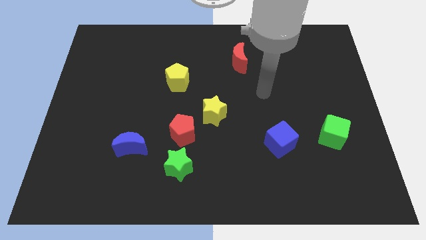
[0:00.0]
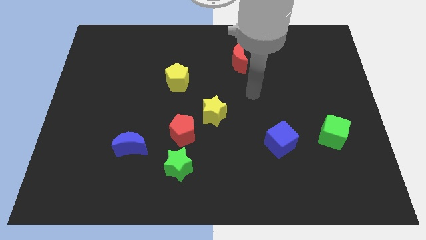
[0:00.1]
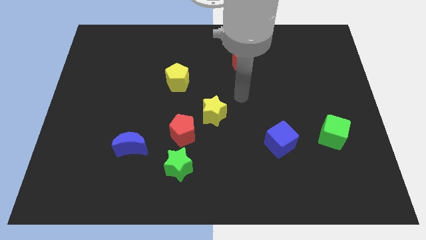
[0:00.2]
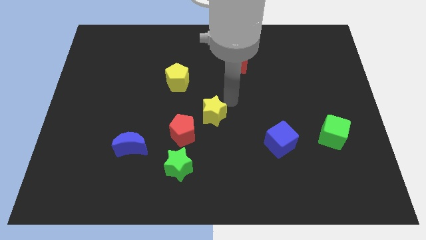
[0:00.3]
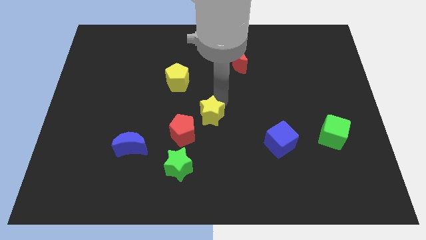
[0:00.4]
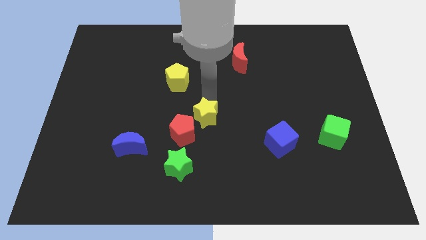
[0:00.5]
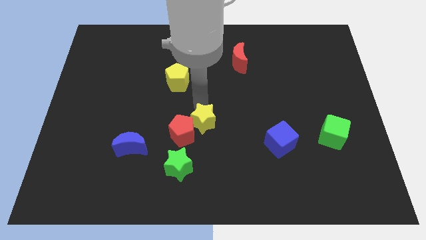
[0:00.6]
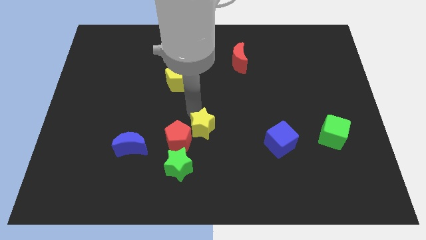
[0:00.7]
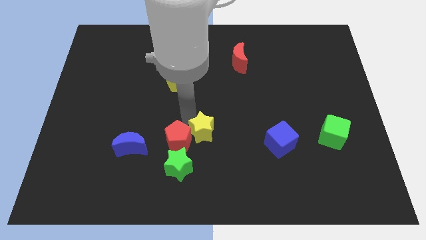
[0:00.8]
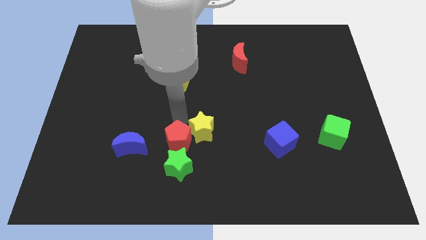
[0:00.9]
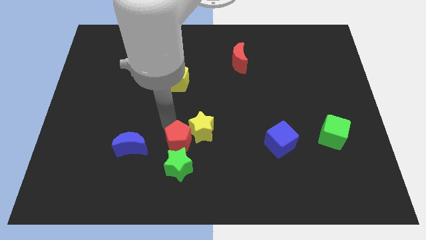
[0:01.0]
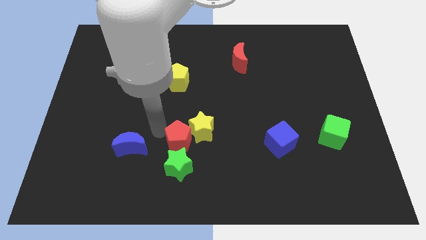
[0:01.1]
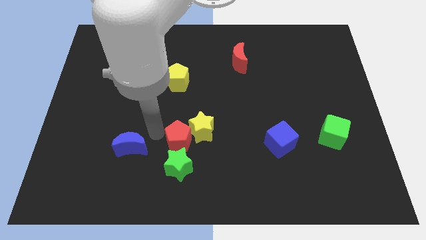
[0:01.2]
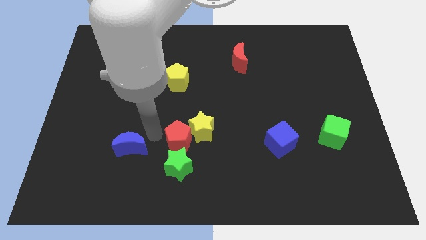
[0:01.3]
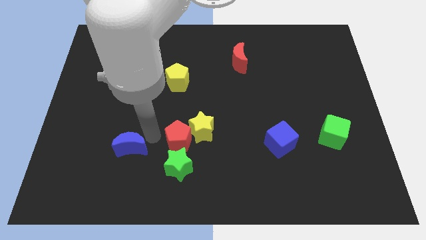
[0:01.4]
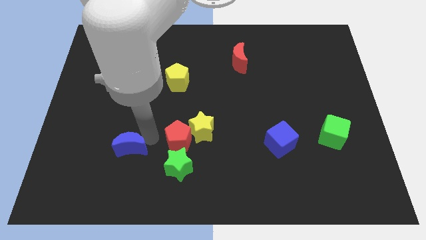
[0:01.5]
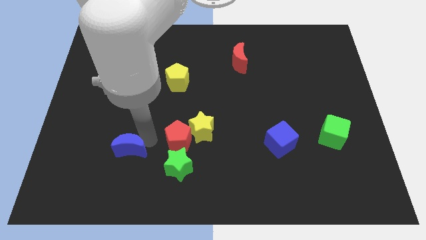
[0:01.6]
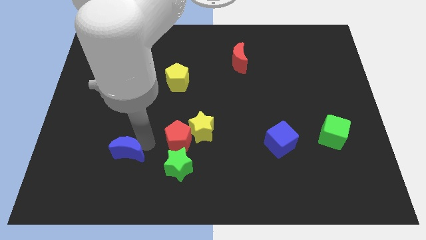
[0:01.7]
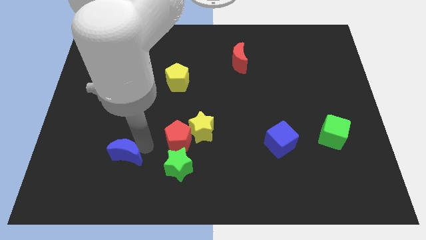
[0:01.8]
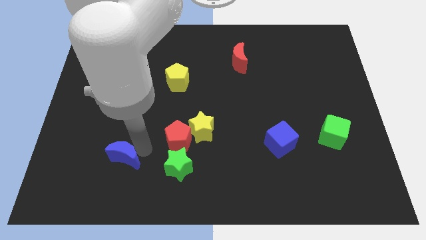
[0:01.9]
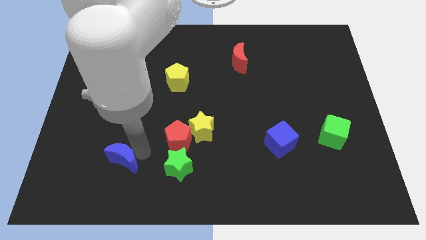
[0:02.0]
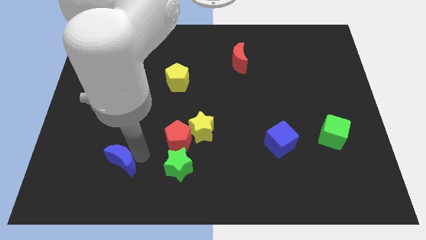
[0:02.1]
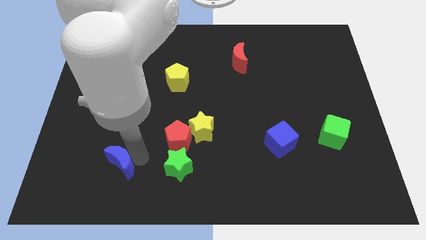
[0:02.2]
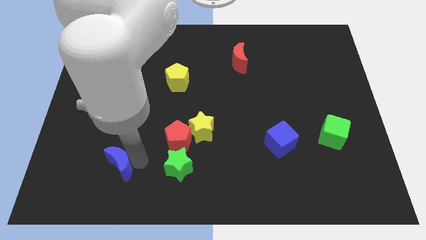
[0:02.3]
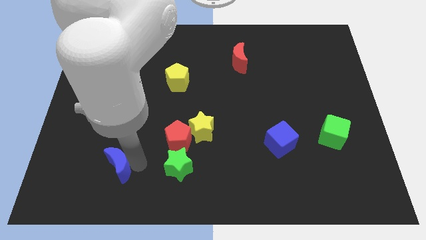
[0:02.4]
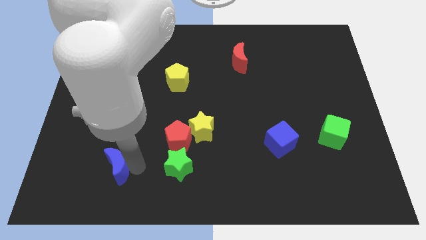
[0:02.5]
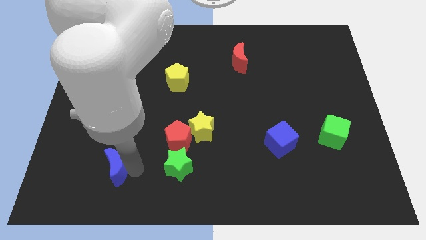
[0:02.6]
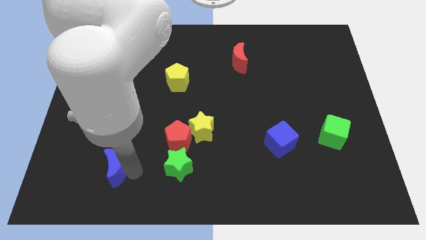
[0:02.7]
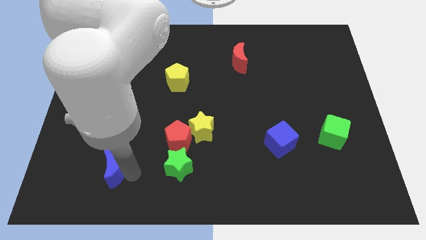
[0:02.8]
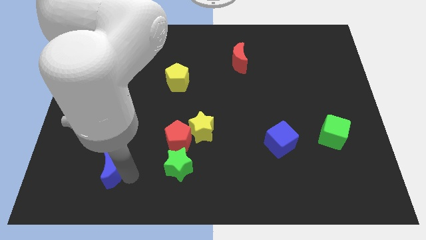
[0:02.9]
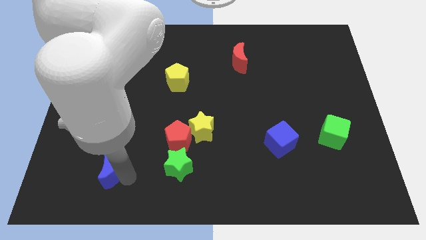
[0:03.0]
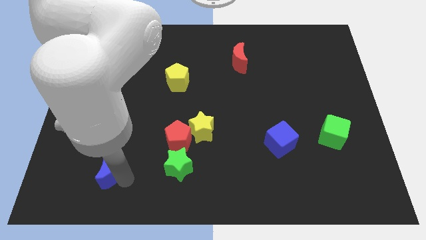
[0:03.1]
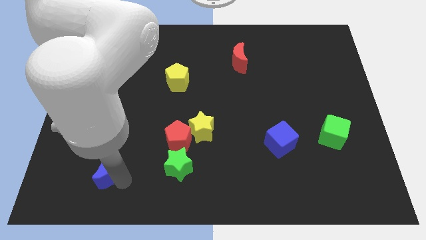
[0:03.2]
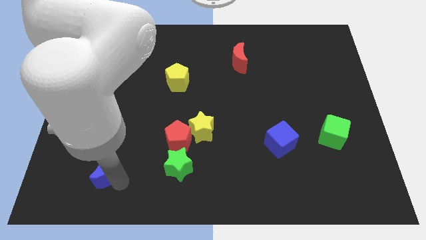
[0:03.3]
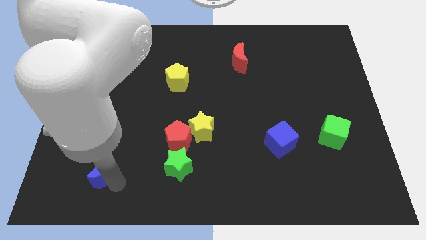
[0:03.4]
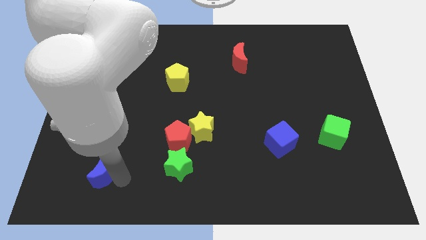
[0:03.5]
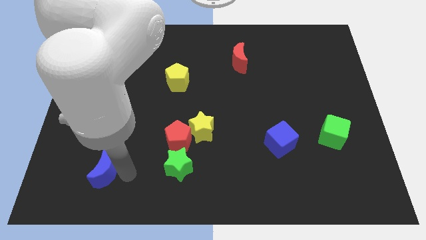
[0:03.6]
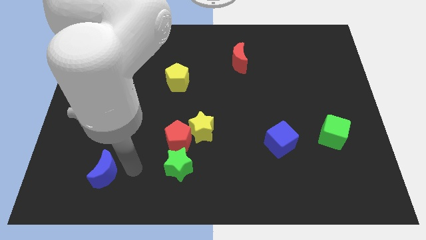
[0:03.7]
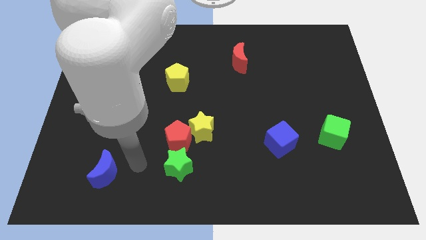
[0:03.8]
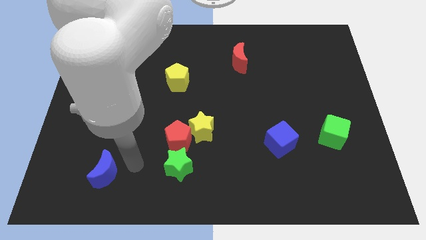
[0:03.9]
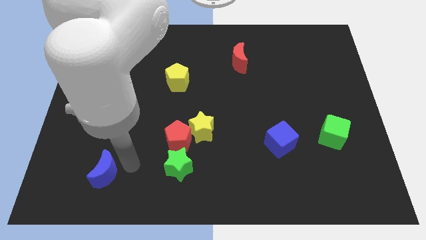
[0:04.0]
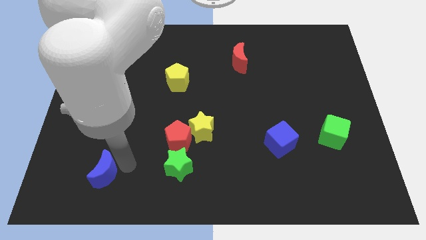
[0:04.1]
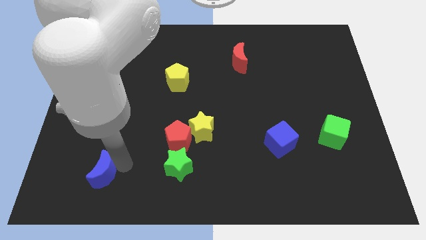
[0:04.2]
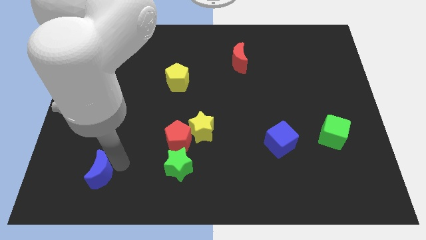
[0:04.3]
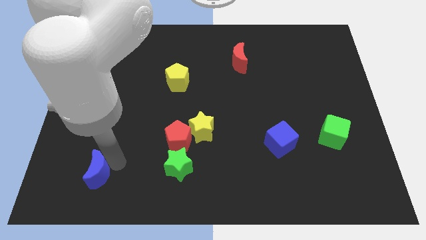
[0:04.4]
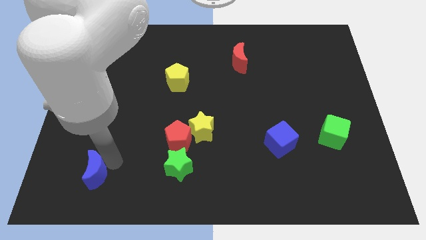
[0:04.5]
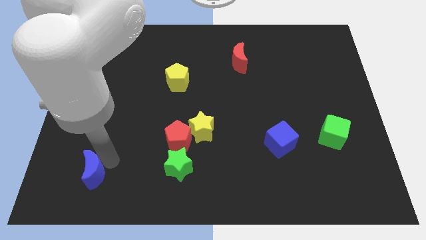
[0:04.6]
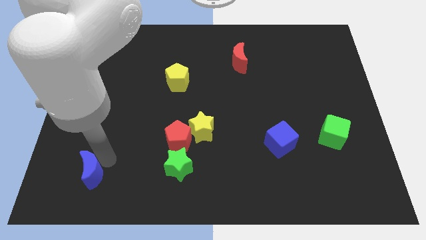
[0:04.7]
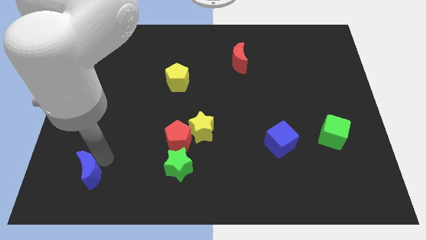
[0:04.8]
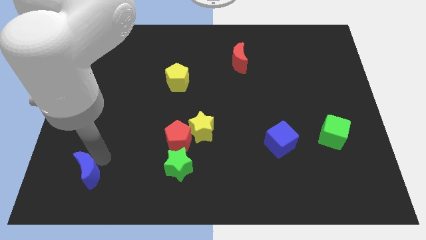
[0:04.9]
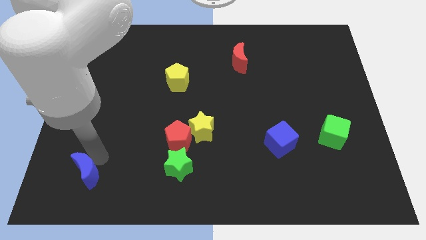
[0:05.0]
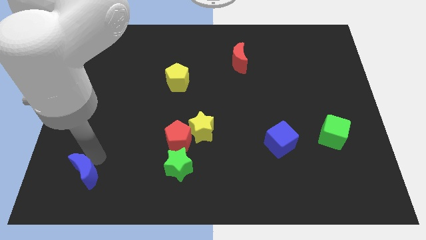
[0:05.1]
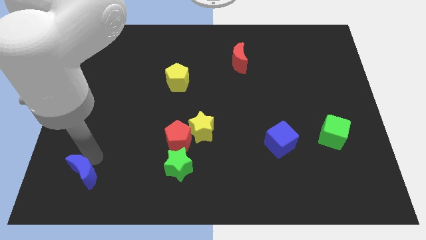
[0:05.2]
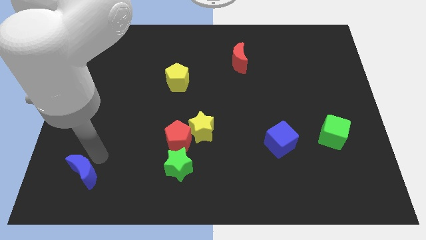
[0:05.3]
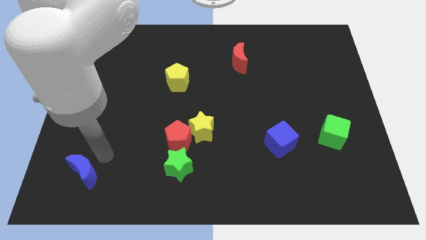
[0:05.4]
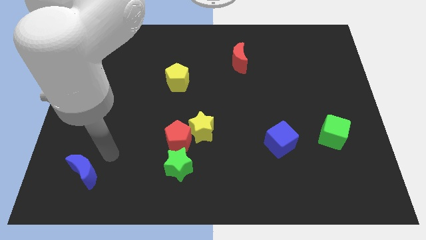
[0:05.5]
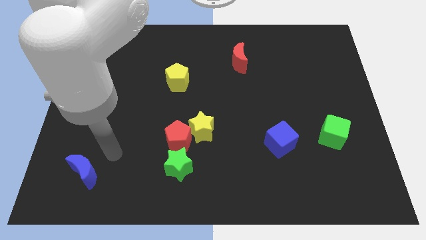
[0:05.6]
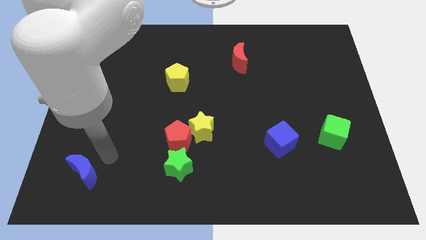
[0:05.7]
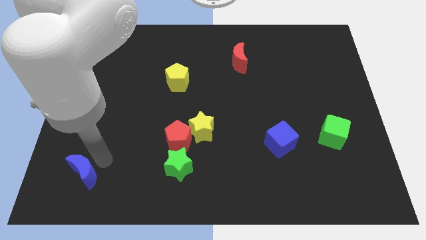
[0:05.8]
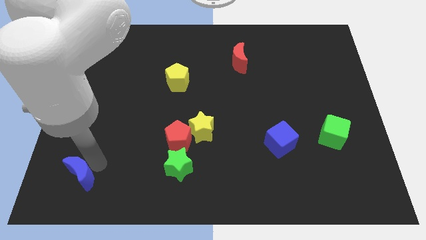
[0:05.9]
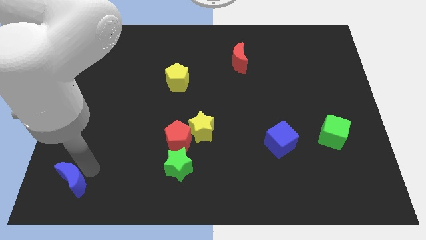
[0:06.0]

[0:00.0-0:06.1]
put the blue moon to the bottom left
